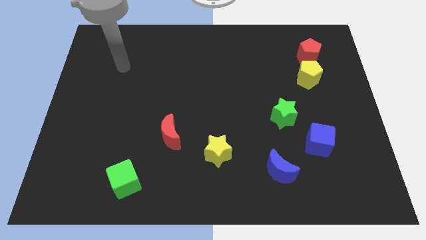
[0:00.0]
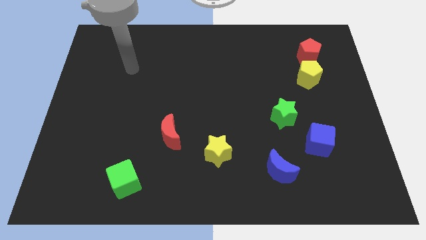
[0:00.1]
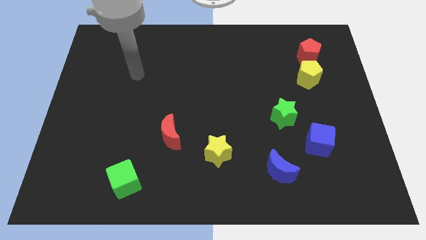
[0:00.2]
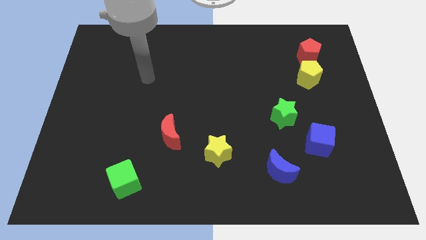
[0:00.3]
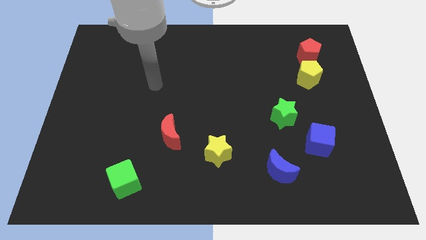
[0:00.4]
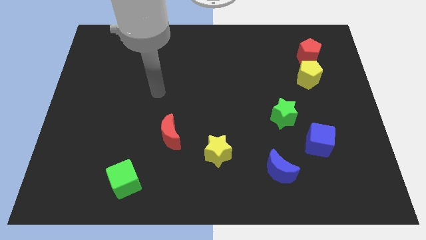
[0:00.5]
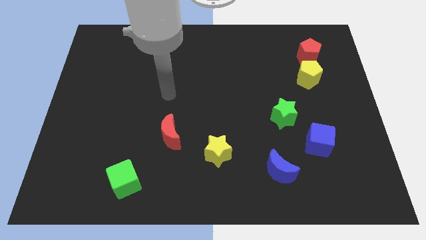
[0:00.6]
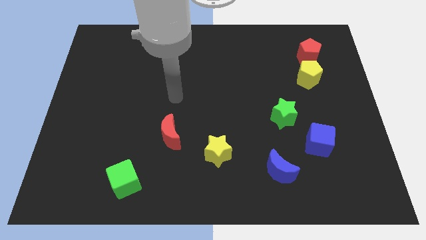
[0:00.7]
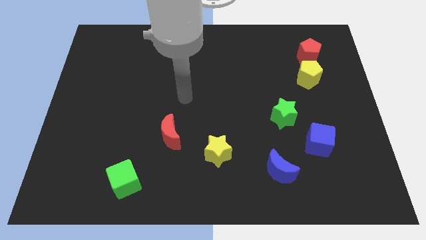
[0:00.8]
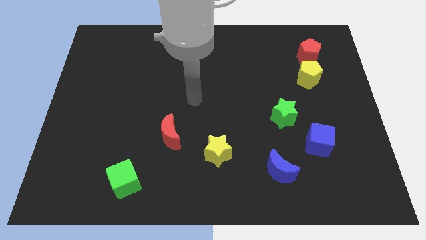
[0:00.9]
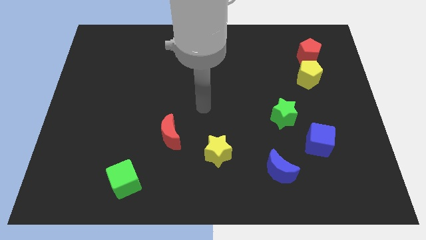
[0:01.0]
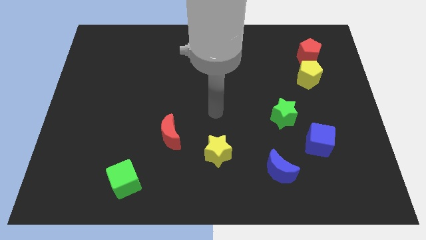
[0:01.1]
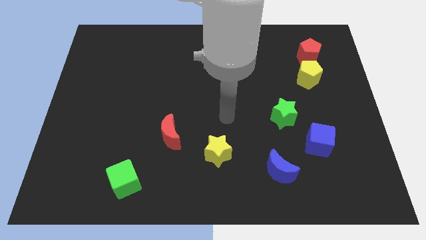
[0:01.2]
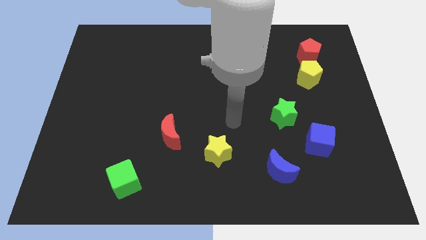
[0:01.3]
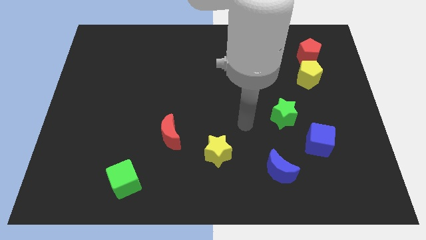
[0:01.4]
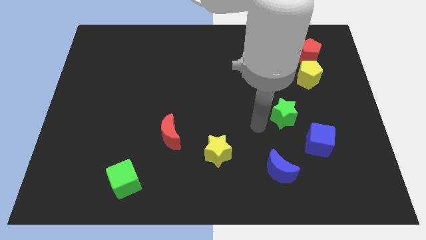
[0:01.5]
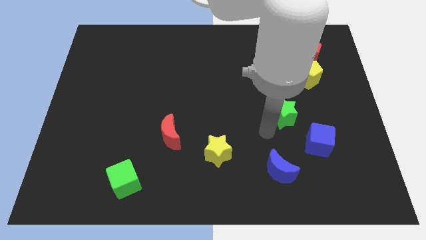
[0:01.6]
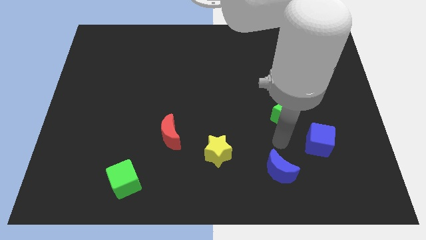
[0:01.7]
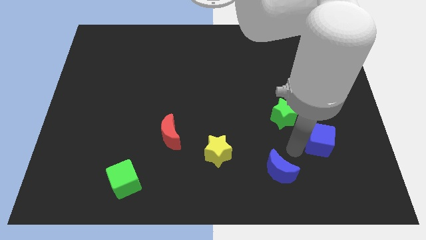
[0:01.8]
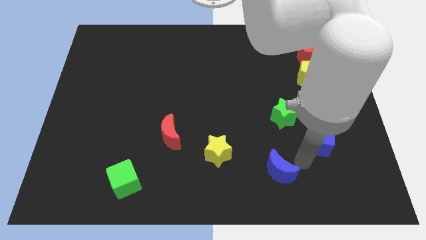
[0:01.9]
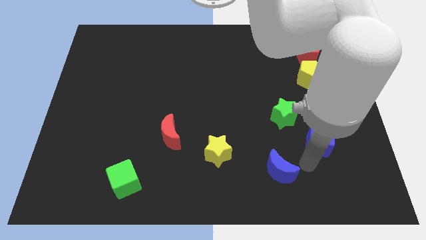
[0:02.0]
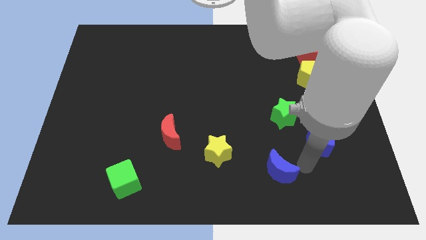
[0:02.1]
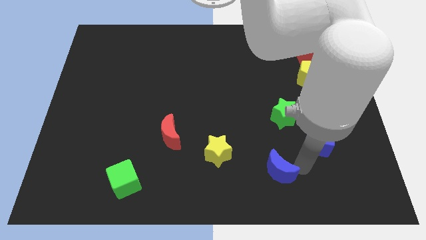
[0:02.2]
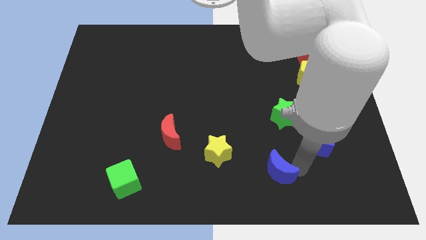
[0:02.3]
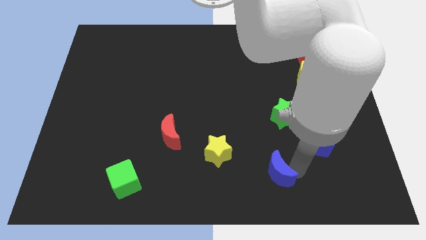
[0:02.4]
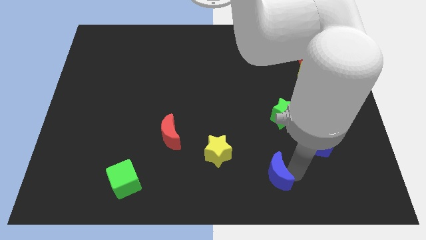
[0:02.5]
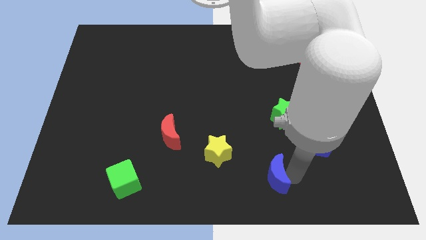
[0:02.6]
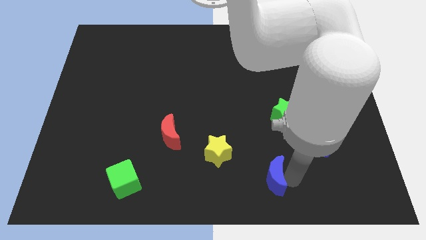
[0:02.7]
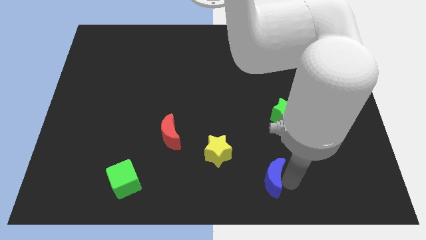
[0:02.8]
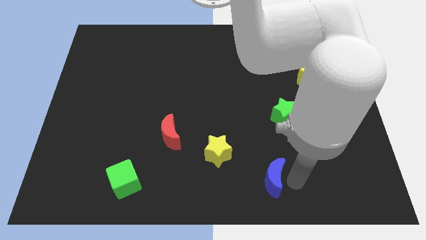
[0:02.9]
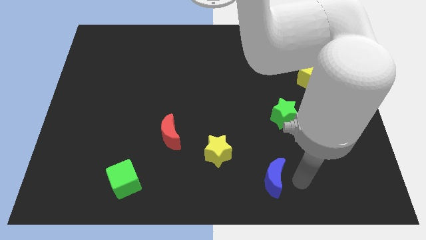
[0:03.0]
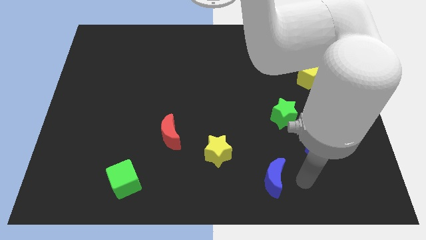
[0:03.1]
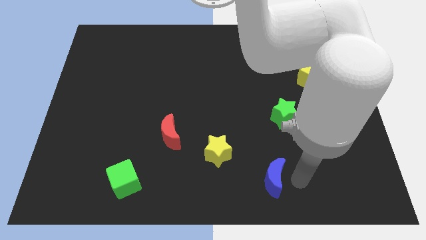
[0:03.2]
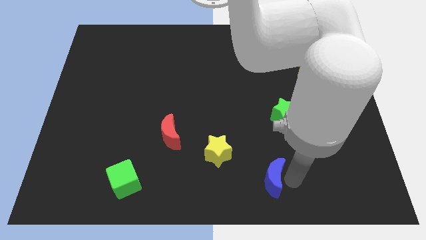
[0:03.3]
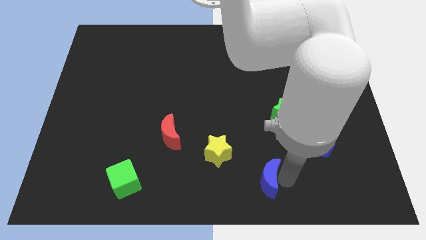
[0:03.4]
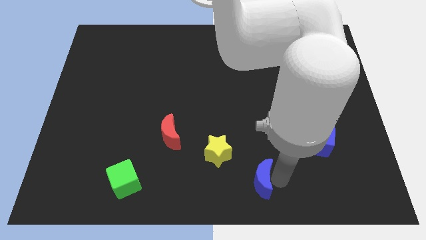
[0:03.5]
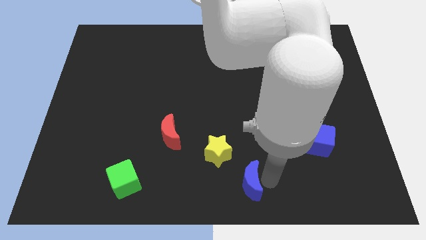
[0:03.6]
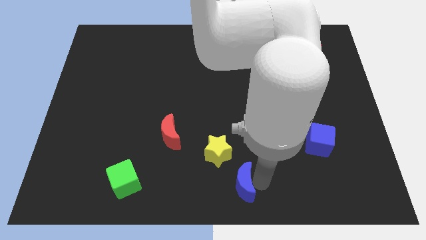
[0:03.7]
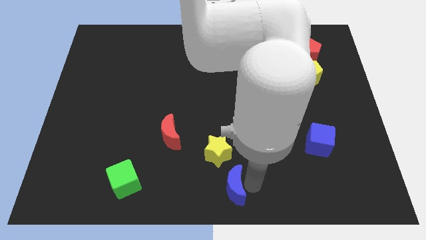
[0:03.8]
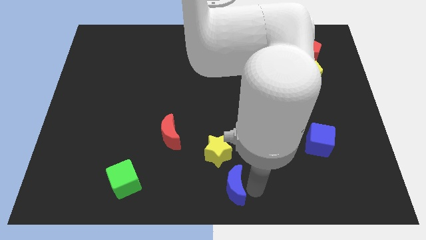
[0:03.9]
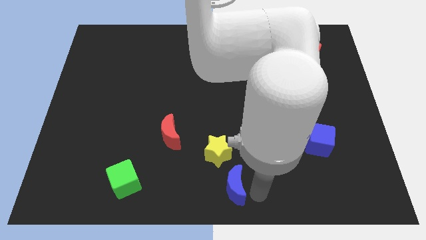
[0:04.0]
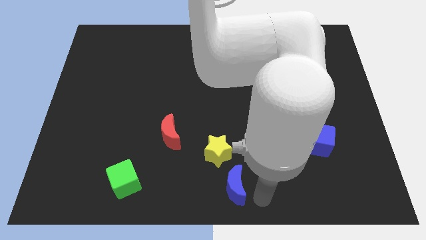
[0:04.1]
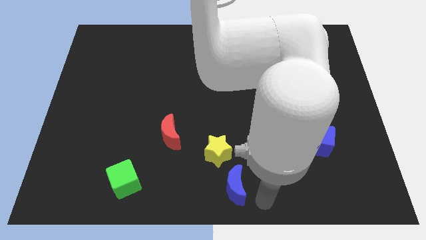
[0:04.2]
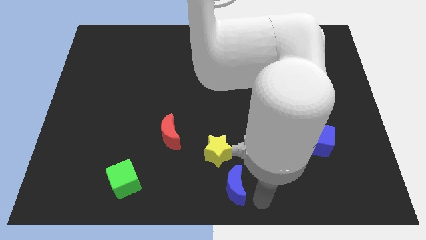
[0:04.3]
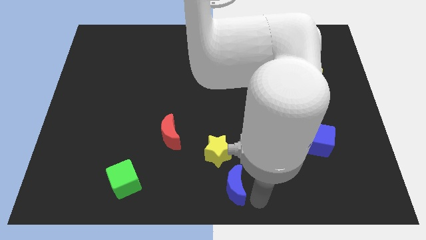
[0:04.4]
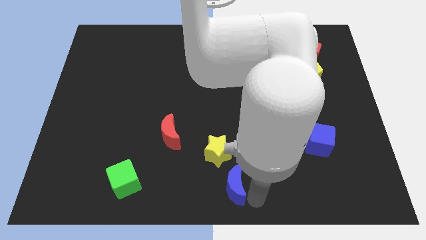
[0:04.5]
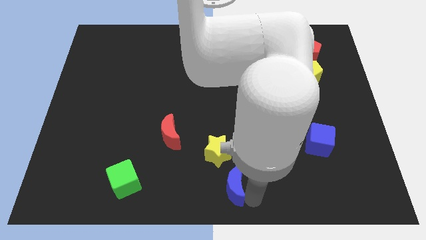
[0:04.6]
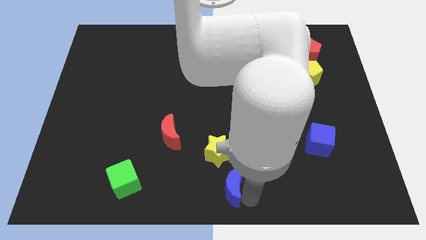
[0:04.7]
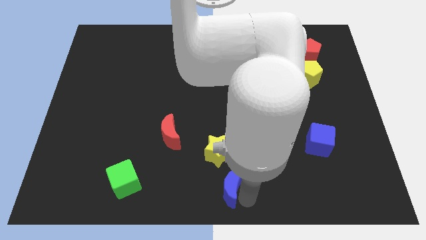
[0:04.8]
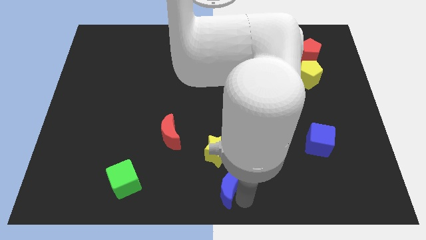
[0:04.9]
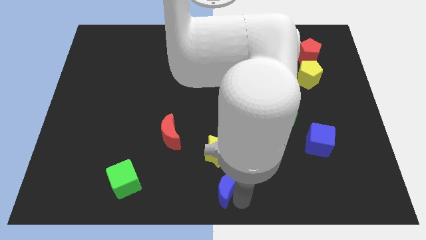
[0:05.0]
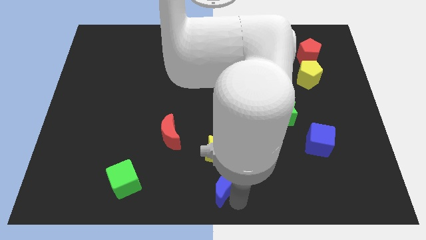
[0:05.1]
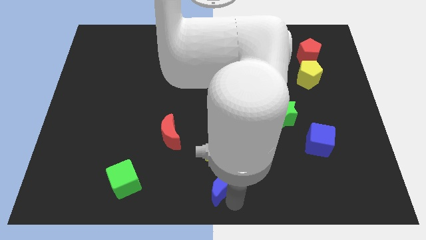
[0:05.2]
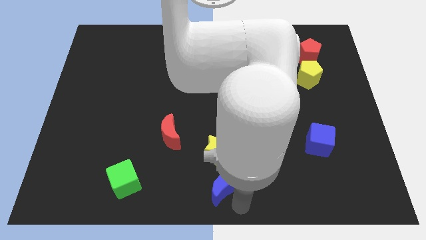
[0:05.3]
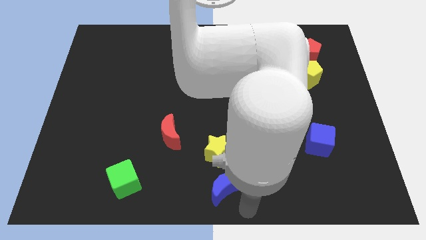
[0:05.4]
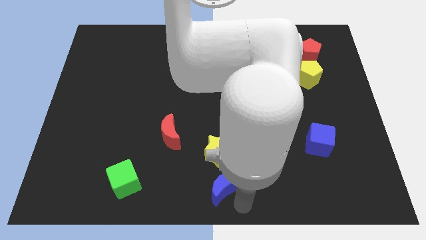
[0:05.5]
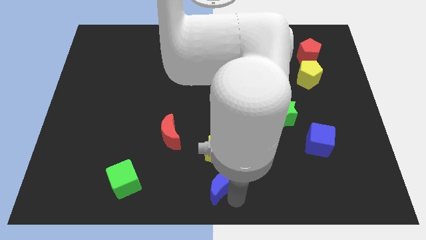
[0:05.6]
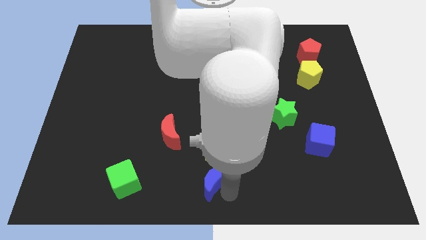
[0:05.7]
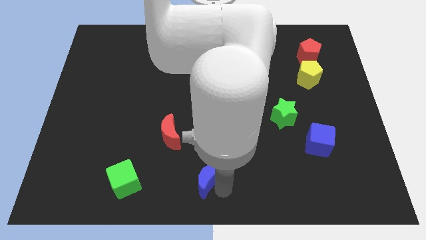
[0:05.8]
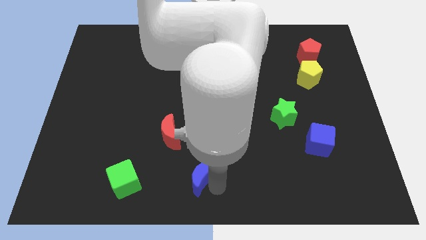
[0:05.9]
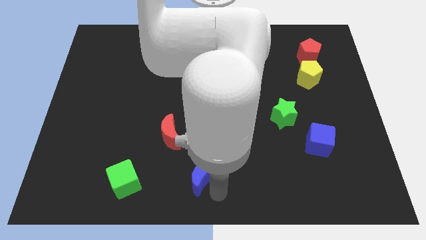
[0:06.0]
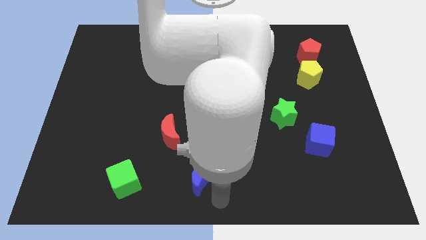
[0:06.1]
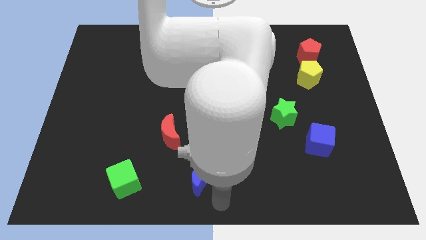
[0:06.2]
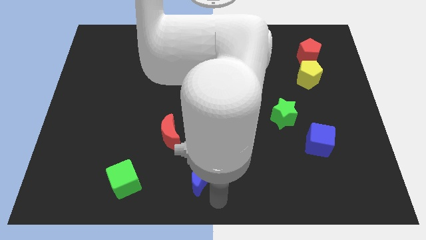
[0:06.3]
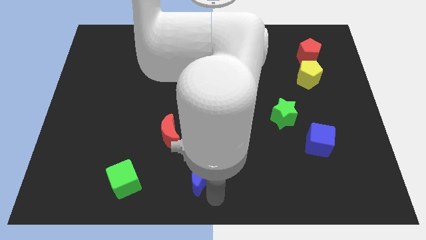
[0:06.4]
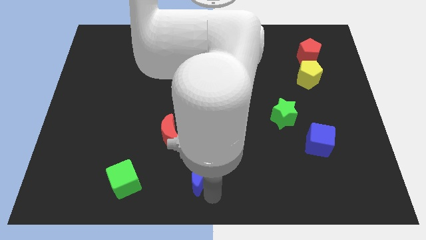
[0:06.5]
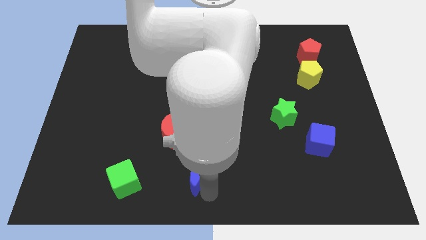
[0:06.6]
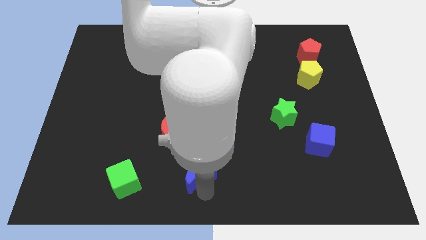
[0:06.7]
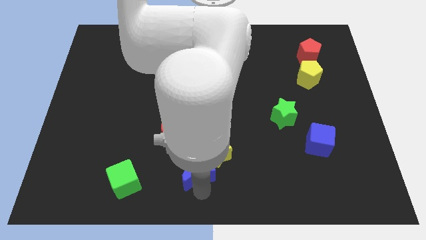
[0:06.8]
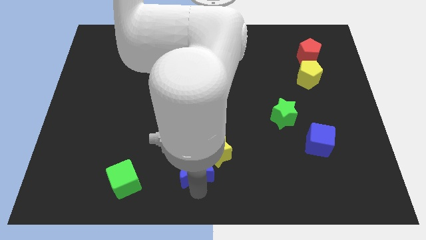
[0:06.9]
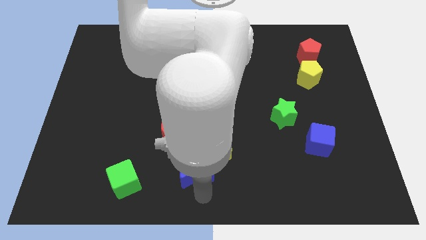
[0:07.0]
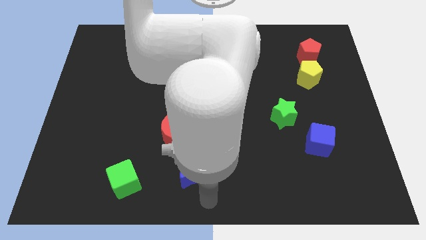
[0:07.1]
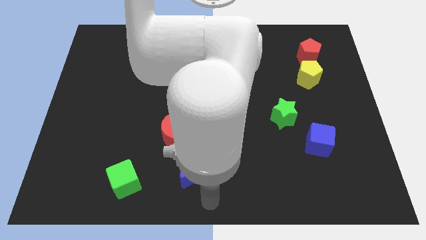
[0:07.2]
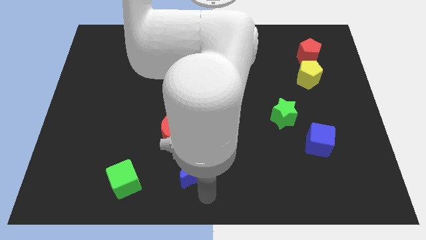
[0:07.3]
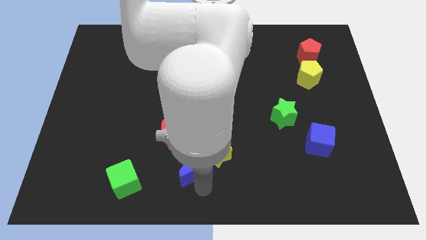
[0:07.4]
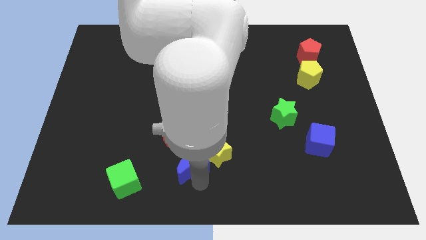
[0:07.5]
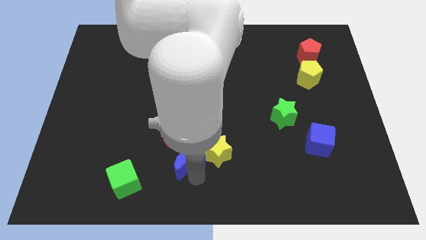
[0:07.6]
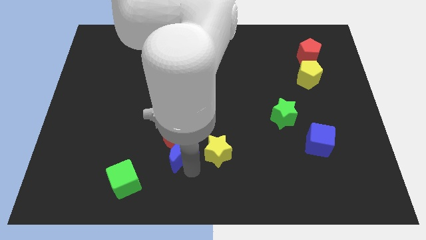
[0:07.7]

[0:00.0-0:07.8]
slide the blue moon close to the red moon
